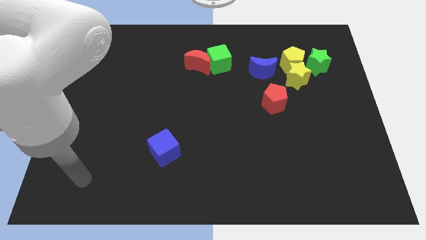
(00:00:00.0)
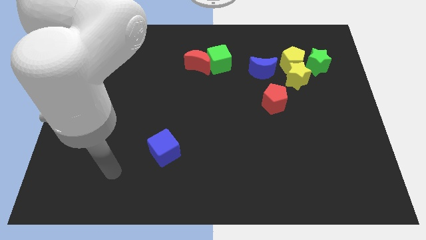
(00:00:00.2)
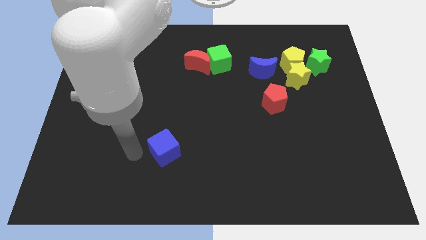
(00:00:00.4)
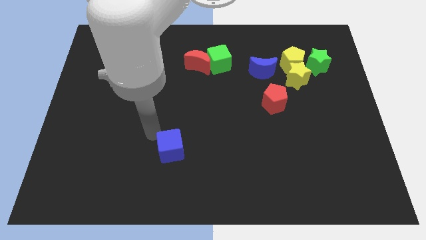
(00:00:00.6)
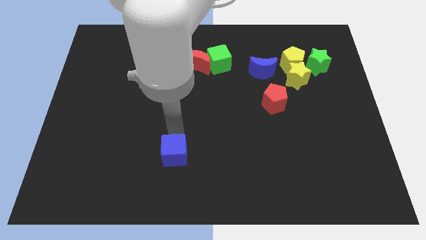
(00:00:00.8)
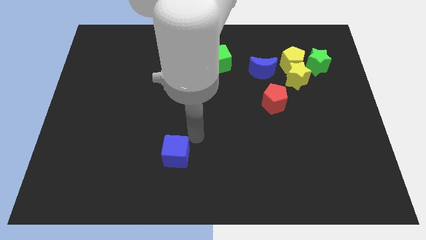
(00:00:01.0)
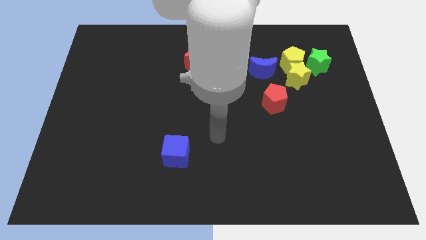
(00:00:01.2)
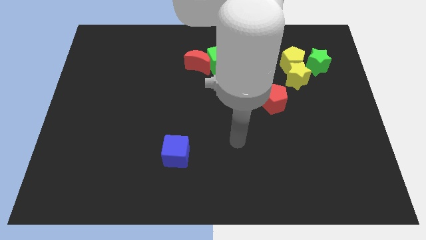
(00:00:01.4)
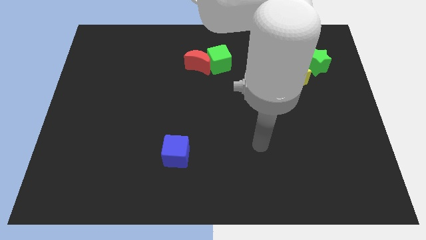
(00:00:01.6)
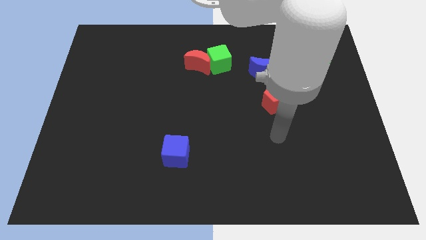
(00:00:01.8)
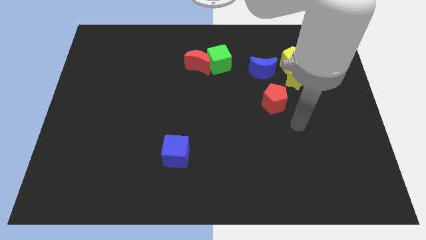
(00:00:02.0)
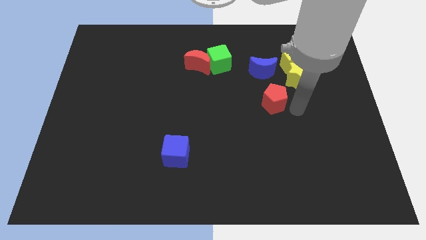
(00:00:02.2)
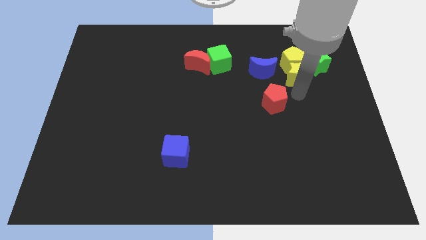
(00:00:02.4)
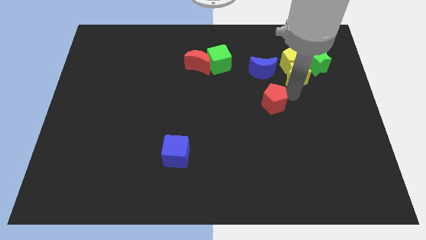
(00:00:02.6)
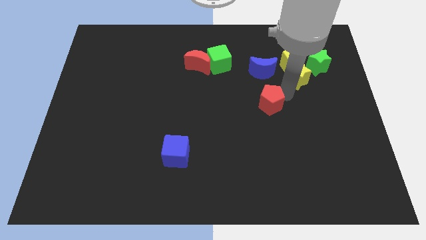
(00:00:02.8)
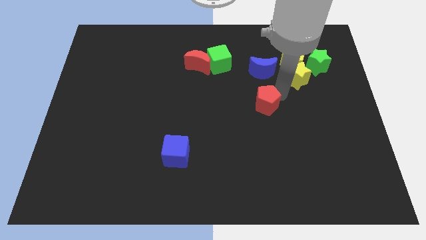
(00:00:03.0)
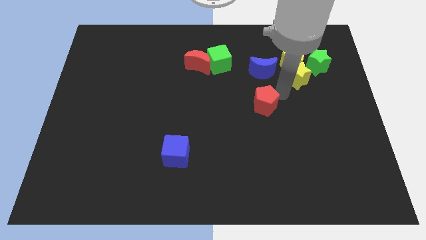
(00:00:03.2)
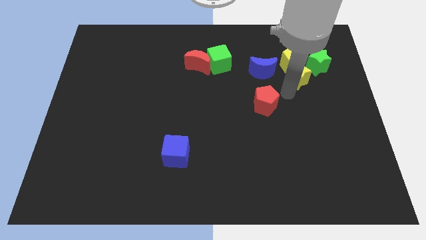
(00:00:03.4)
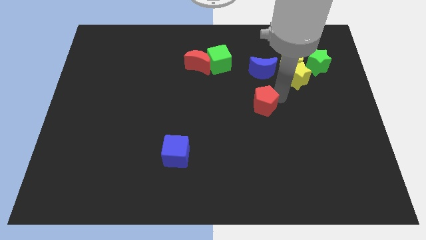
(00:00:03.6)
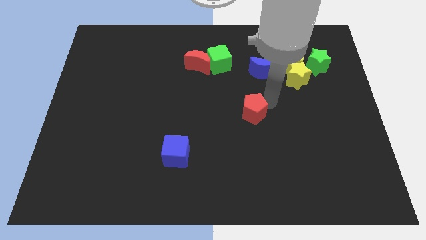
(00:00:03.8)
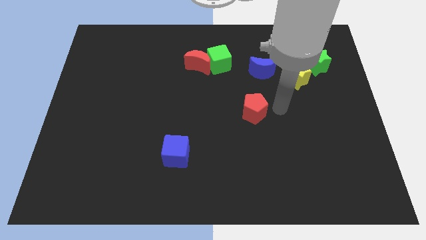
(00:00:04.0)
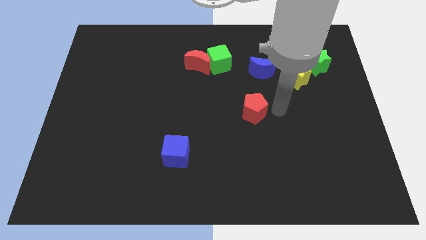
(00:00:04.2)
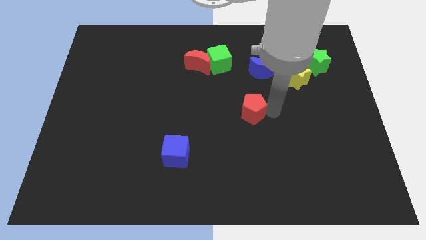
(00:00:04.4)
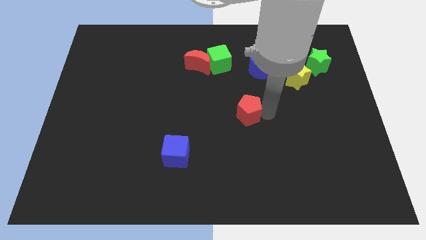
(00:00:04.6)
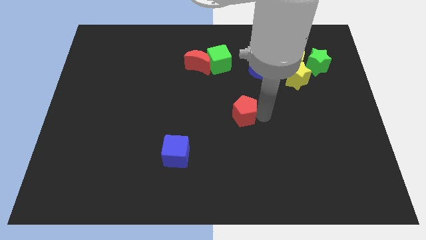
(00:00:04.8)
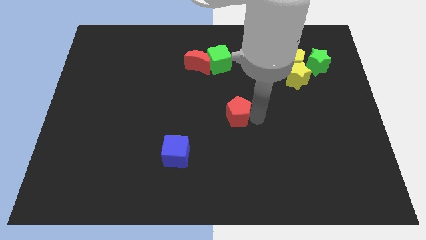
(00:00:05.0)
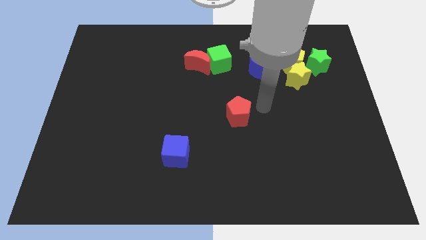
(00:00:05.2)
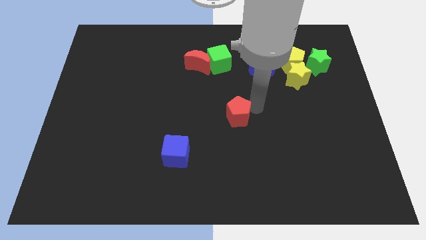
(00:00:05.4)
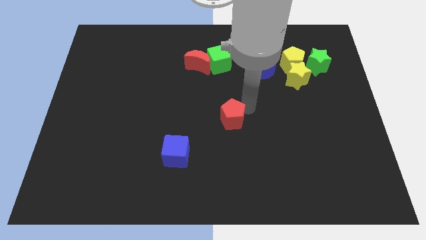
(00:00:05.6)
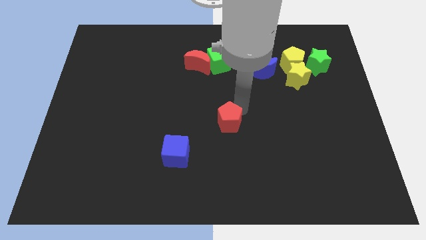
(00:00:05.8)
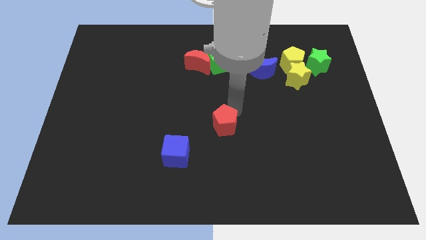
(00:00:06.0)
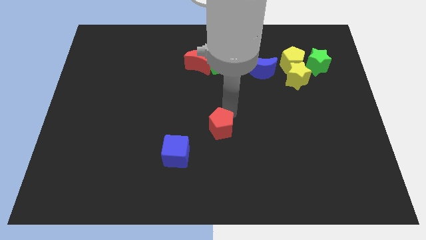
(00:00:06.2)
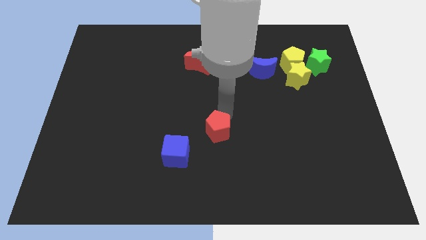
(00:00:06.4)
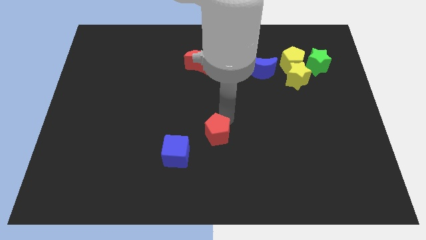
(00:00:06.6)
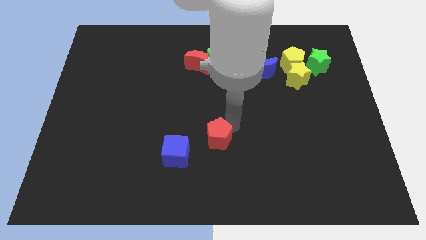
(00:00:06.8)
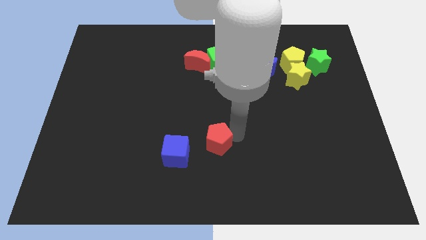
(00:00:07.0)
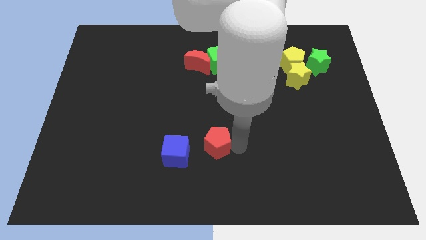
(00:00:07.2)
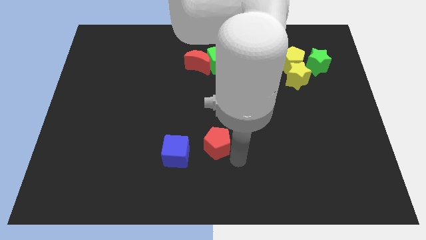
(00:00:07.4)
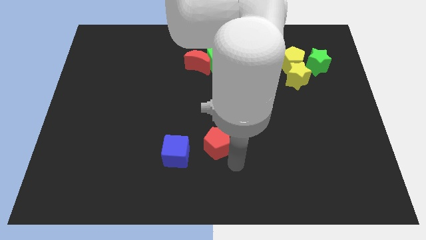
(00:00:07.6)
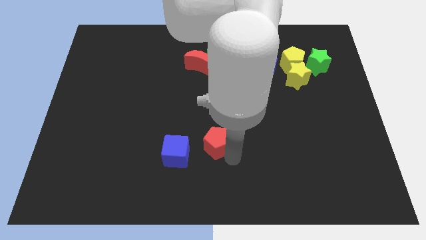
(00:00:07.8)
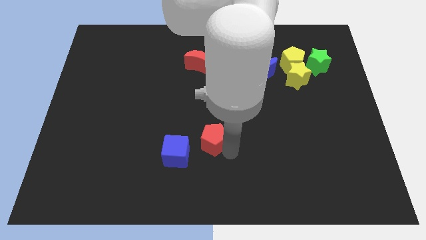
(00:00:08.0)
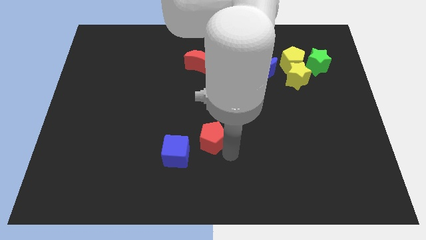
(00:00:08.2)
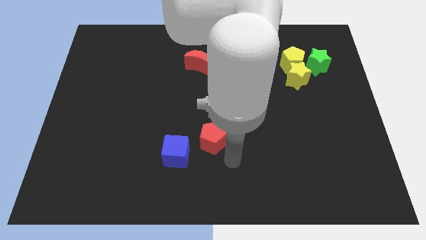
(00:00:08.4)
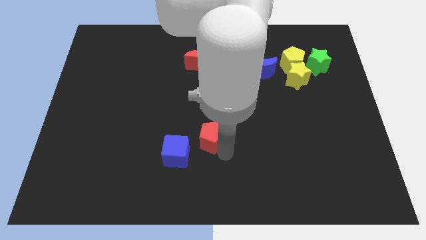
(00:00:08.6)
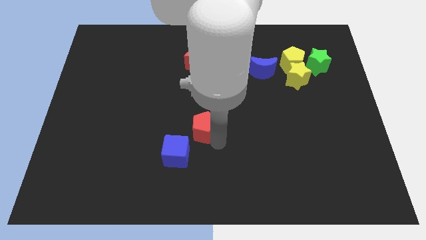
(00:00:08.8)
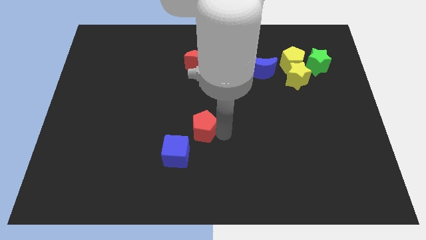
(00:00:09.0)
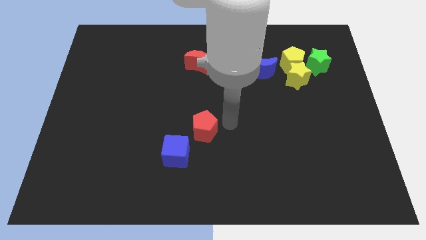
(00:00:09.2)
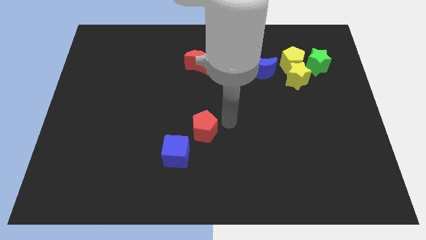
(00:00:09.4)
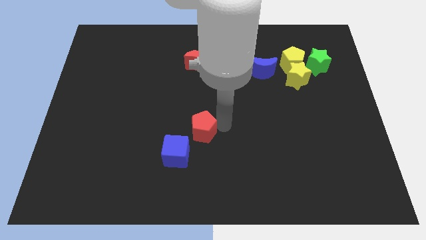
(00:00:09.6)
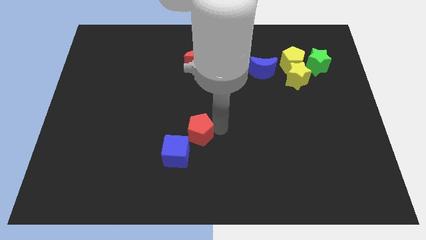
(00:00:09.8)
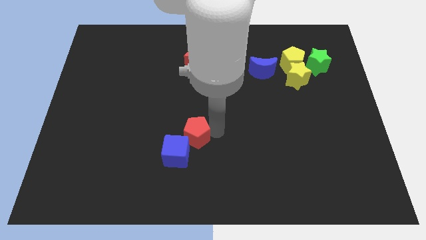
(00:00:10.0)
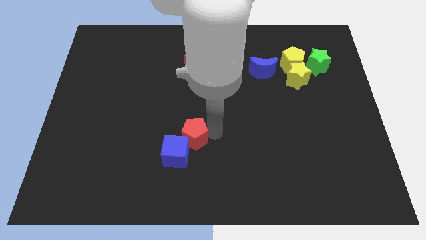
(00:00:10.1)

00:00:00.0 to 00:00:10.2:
move the red pentagon to the blue cube

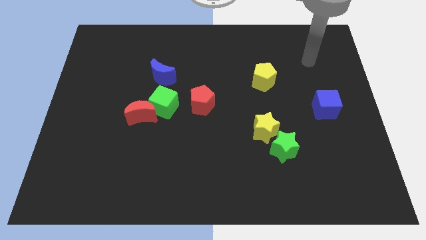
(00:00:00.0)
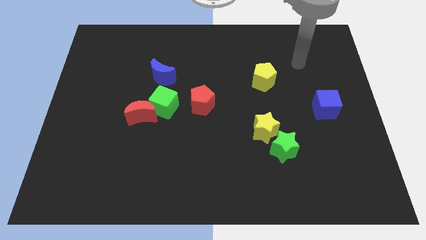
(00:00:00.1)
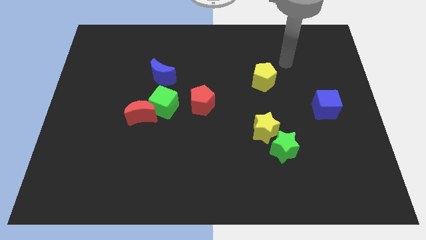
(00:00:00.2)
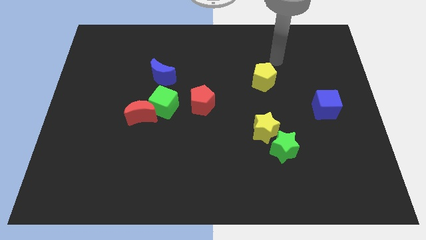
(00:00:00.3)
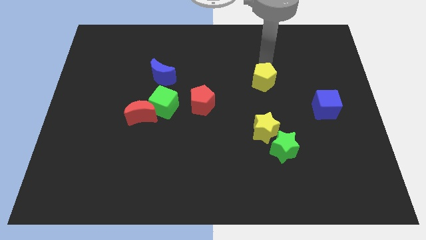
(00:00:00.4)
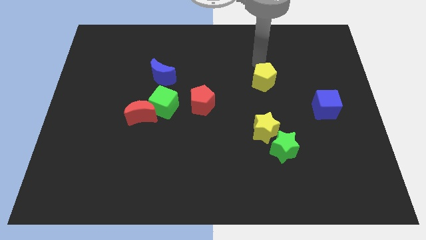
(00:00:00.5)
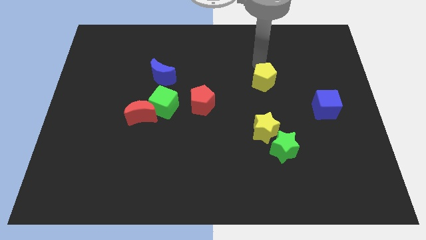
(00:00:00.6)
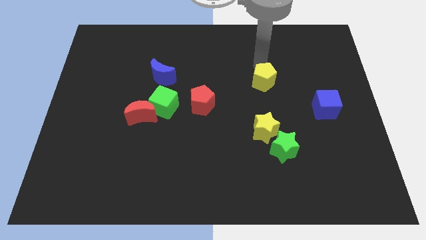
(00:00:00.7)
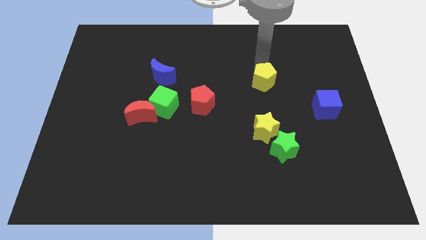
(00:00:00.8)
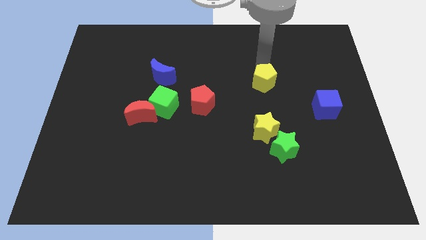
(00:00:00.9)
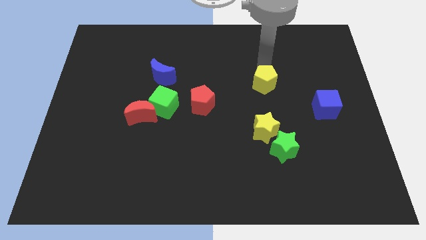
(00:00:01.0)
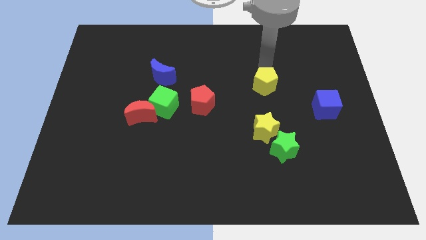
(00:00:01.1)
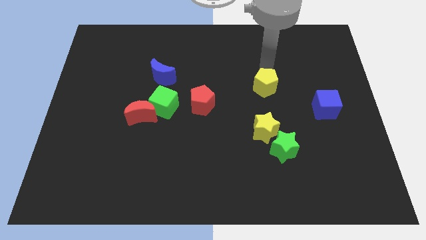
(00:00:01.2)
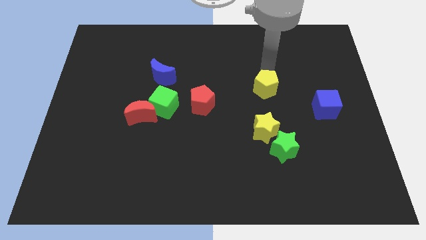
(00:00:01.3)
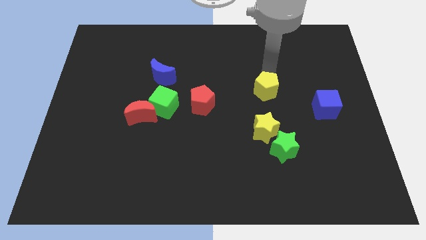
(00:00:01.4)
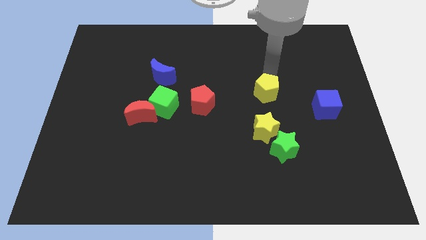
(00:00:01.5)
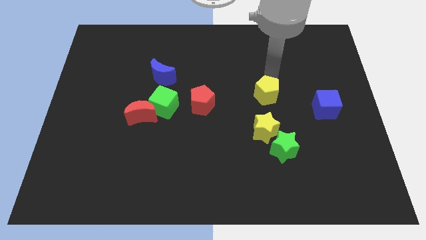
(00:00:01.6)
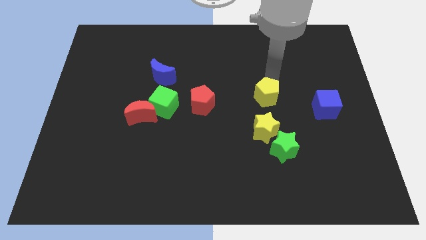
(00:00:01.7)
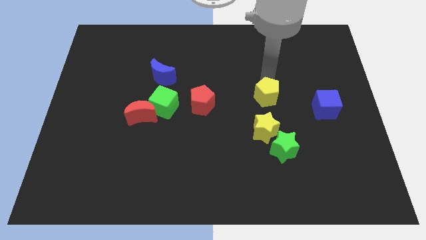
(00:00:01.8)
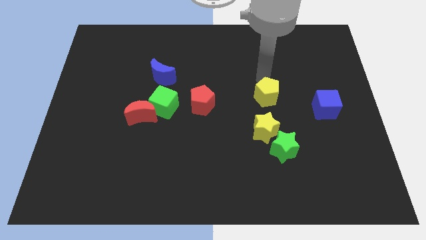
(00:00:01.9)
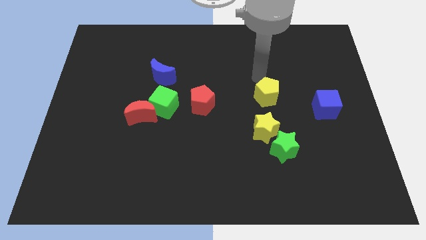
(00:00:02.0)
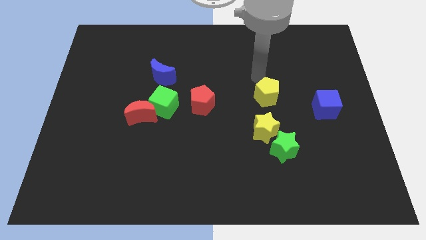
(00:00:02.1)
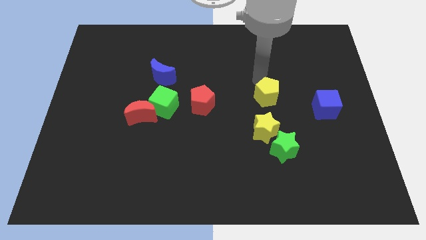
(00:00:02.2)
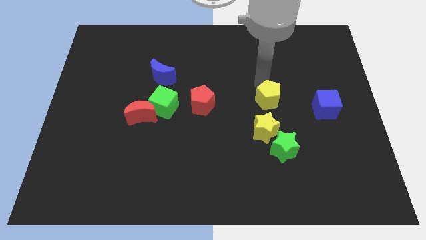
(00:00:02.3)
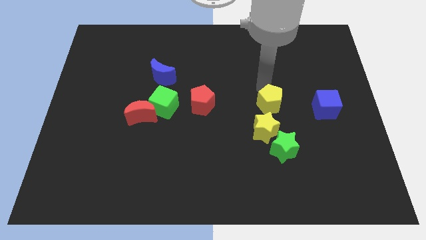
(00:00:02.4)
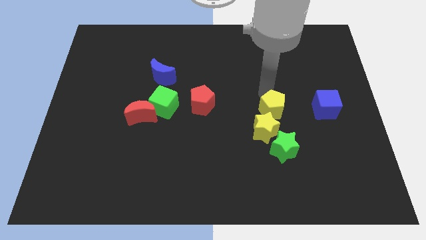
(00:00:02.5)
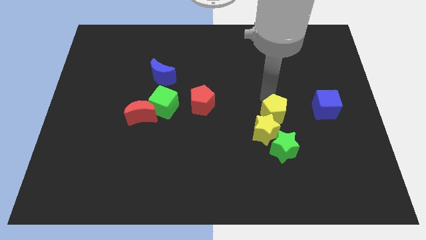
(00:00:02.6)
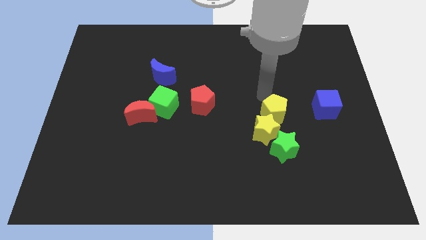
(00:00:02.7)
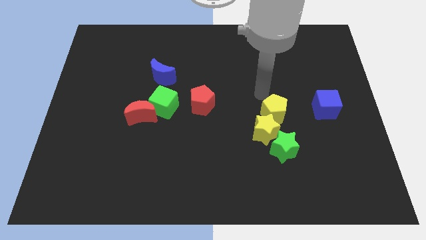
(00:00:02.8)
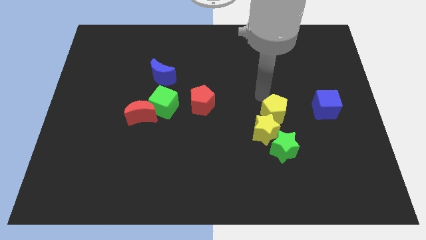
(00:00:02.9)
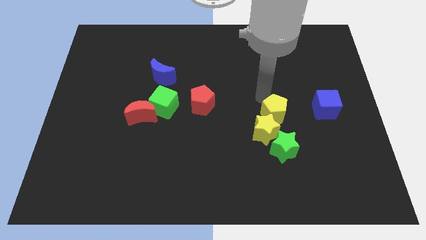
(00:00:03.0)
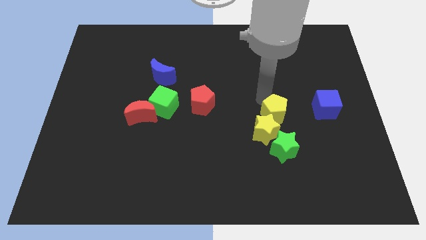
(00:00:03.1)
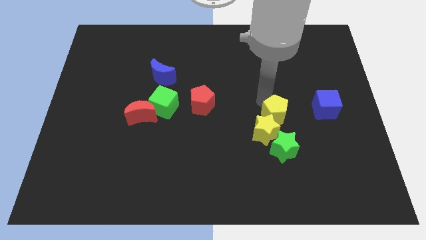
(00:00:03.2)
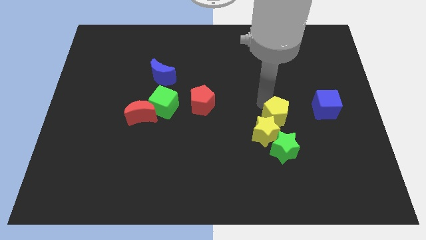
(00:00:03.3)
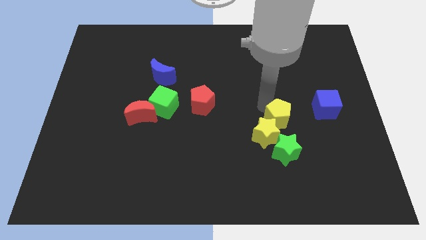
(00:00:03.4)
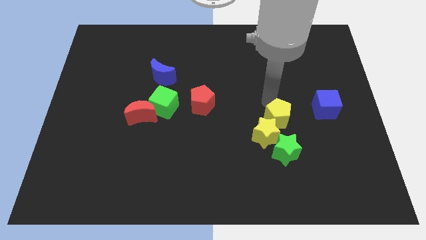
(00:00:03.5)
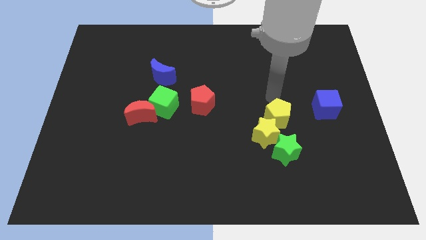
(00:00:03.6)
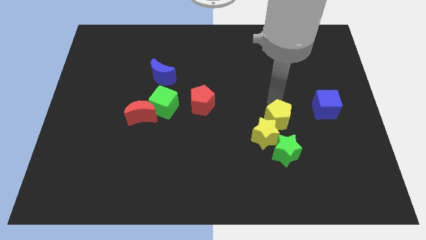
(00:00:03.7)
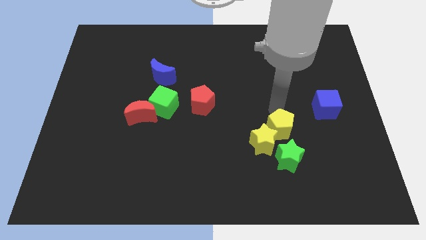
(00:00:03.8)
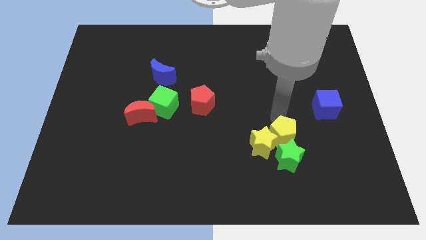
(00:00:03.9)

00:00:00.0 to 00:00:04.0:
slide the yellow pentagon to the green star
